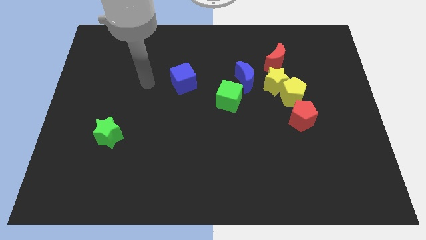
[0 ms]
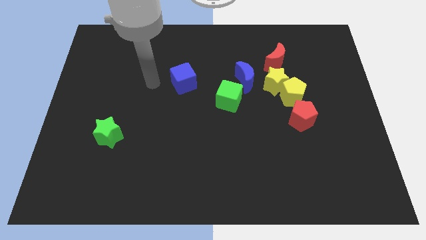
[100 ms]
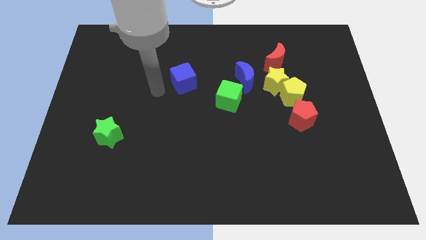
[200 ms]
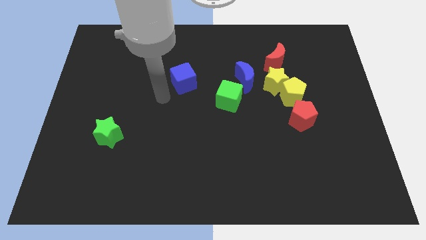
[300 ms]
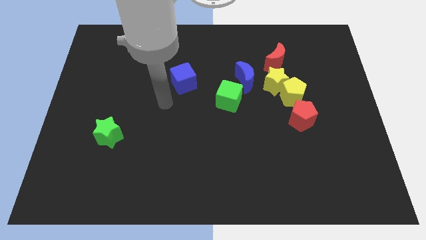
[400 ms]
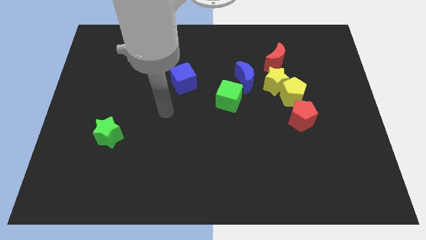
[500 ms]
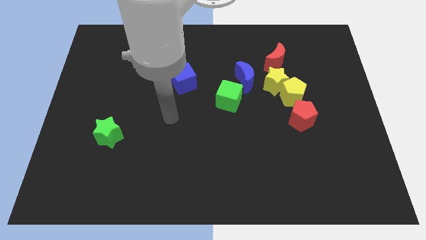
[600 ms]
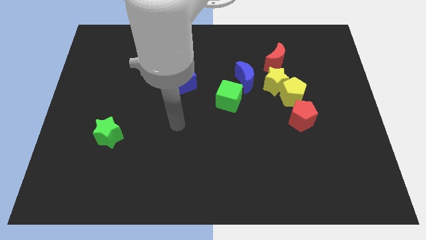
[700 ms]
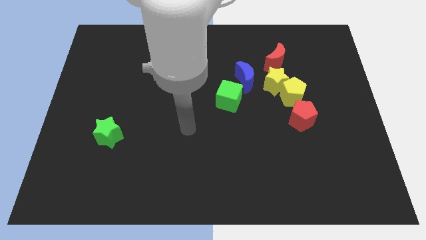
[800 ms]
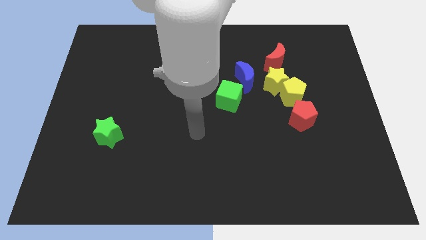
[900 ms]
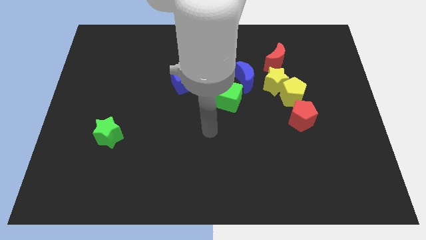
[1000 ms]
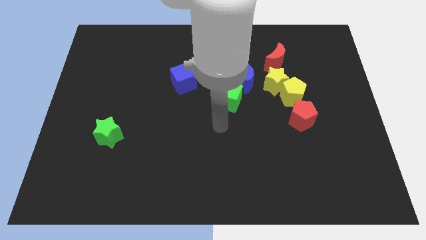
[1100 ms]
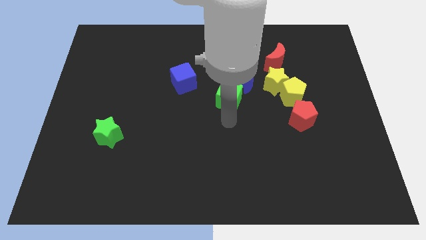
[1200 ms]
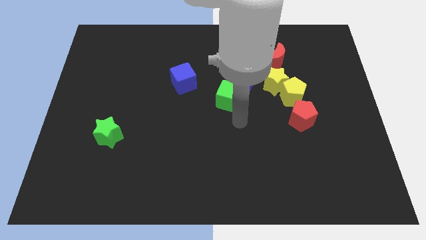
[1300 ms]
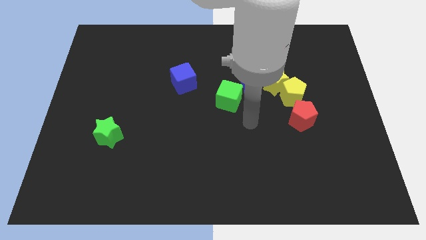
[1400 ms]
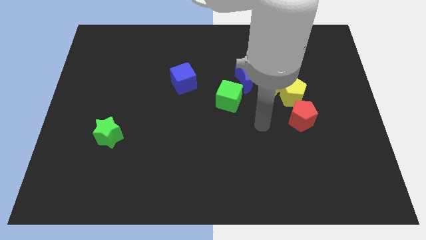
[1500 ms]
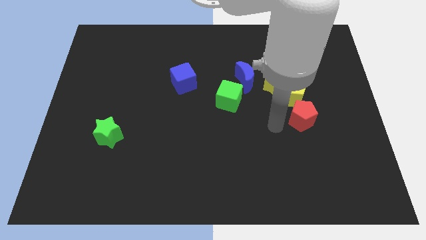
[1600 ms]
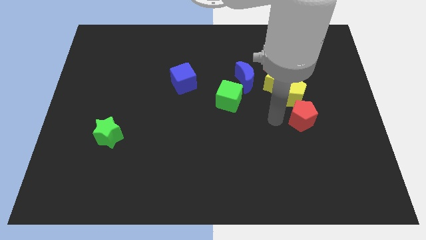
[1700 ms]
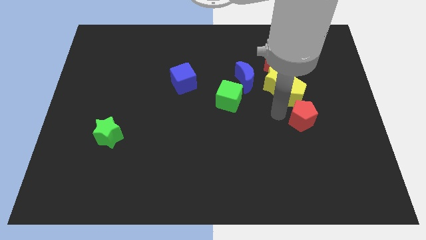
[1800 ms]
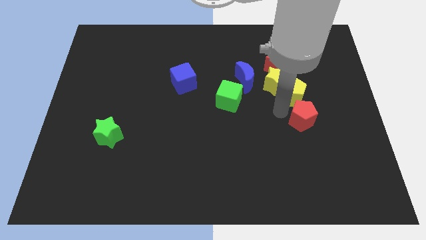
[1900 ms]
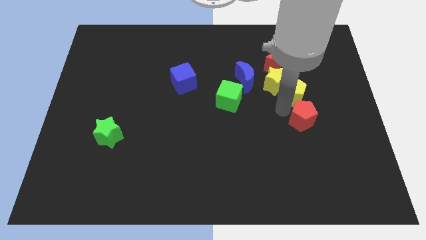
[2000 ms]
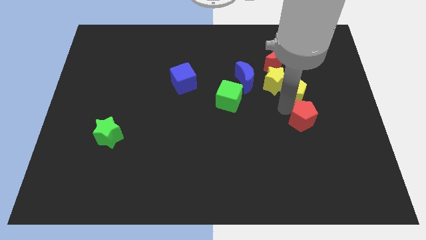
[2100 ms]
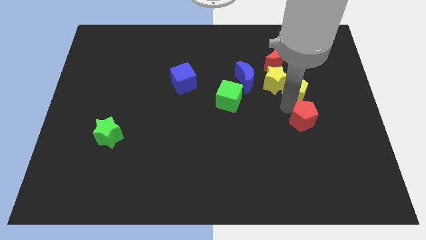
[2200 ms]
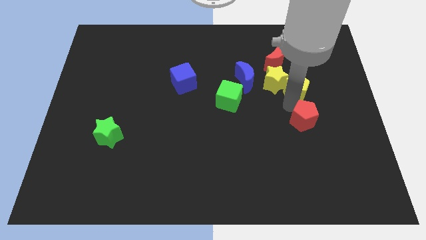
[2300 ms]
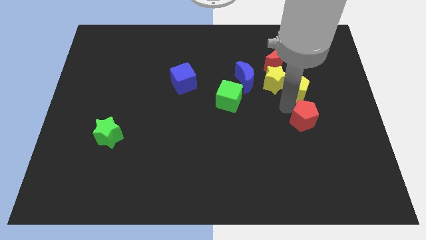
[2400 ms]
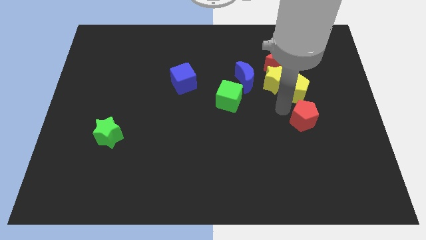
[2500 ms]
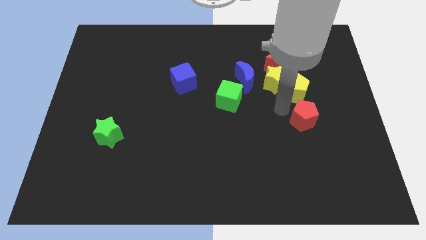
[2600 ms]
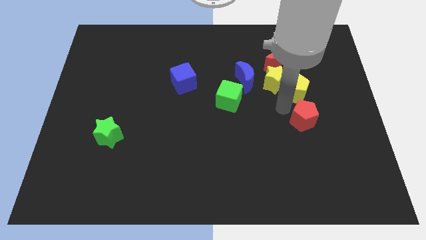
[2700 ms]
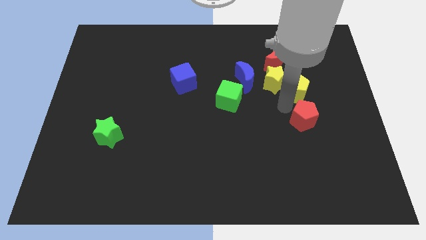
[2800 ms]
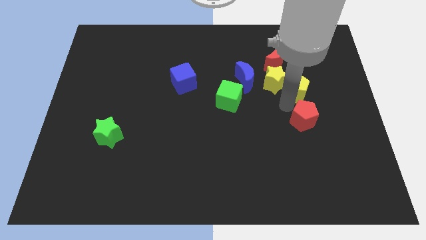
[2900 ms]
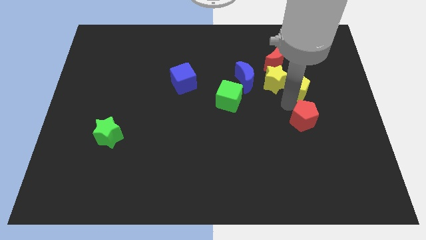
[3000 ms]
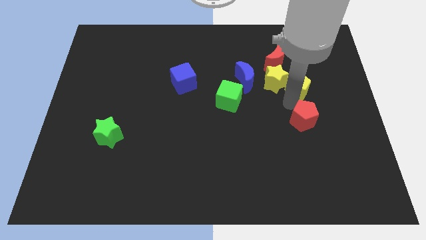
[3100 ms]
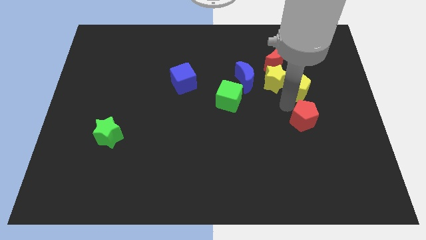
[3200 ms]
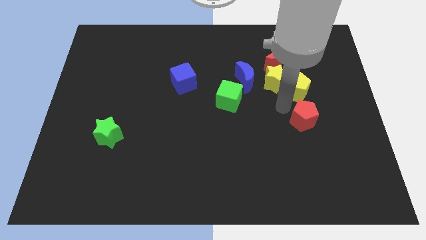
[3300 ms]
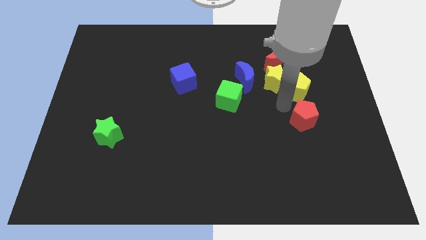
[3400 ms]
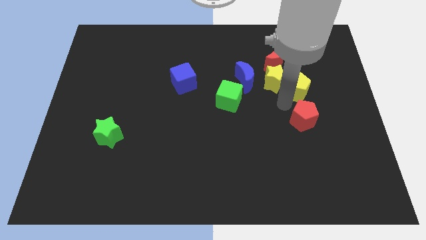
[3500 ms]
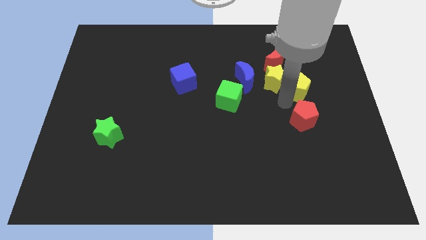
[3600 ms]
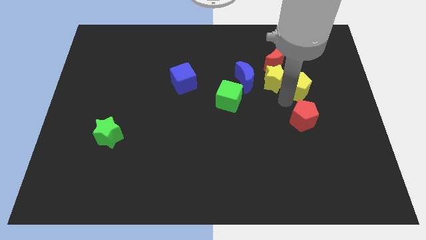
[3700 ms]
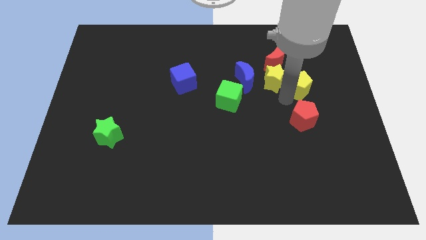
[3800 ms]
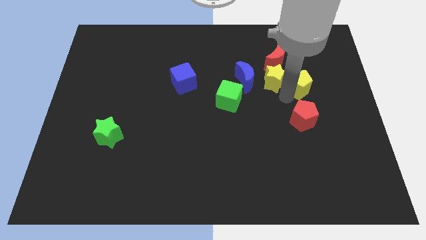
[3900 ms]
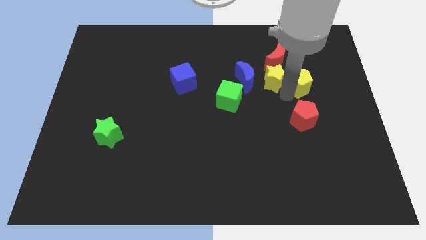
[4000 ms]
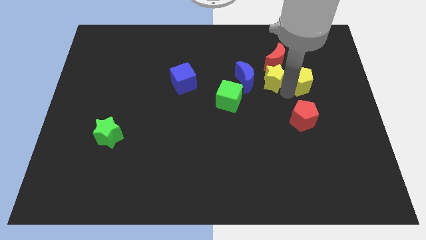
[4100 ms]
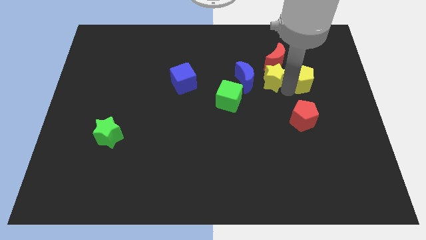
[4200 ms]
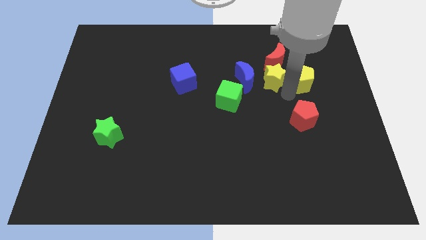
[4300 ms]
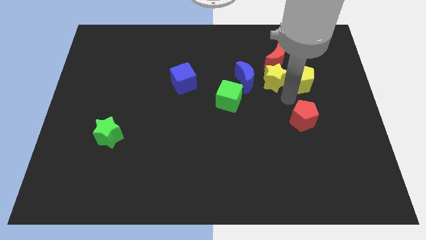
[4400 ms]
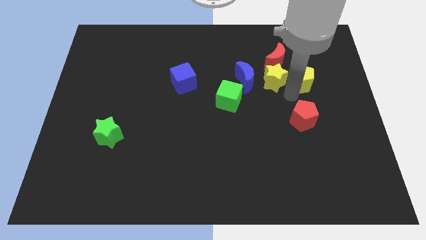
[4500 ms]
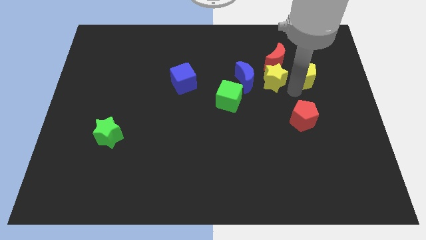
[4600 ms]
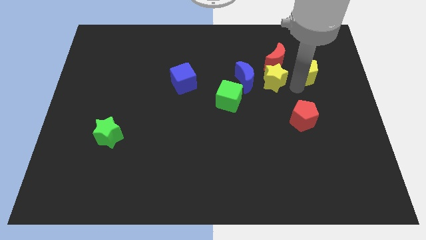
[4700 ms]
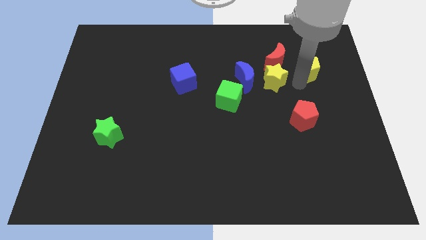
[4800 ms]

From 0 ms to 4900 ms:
pull the yellow pentagon apart from the yellow star and red pentagon

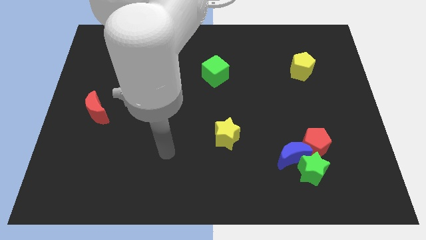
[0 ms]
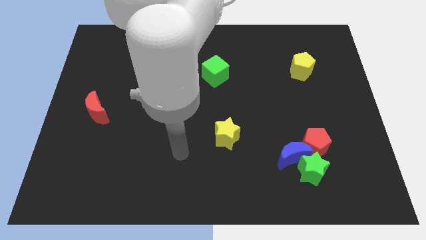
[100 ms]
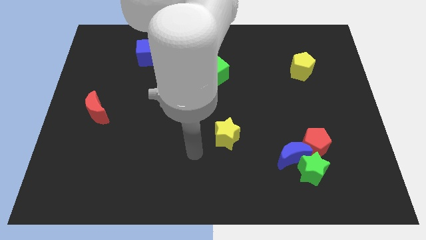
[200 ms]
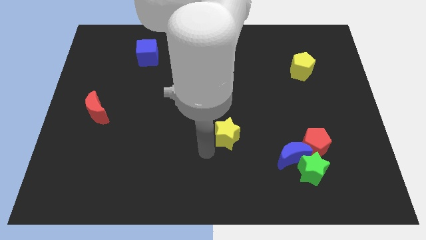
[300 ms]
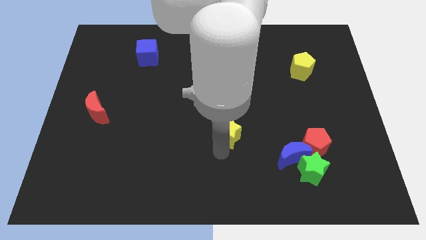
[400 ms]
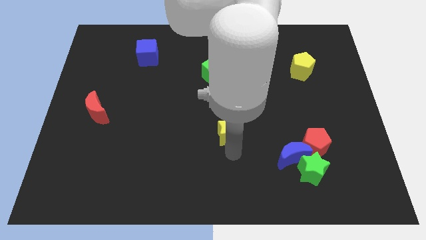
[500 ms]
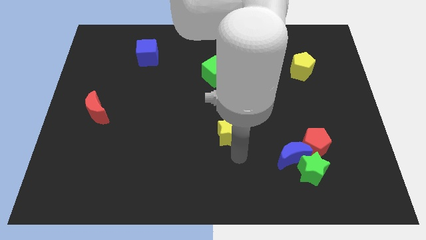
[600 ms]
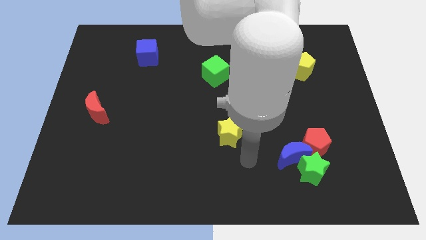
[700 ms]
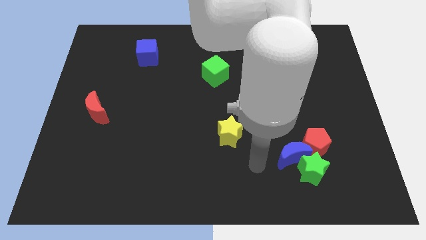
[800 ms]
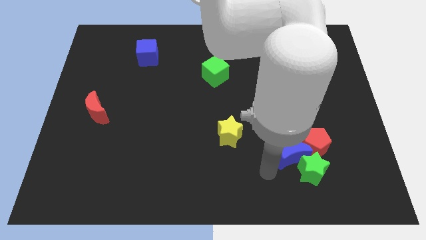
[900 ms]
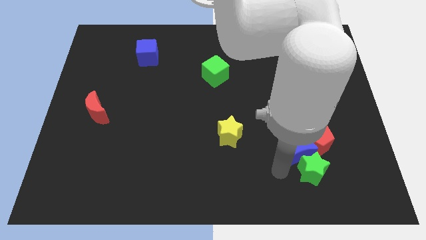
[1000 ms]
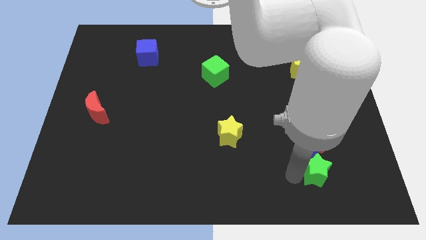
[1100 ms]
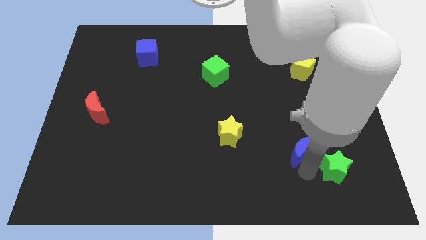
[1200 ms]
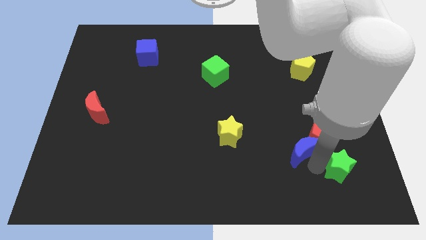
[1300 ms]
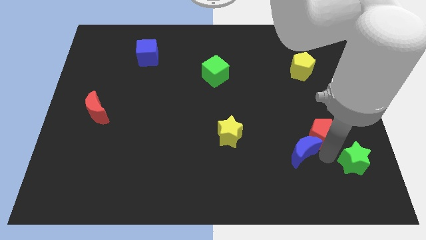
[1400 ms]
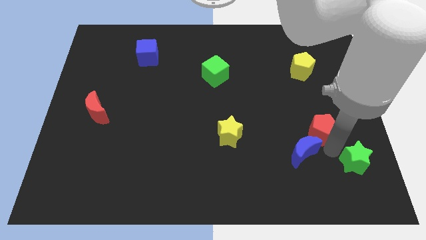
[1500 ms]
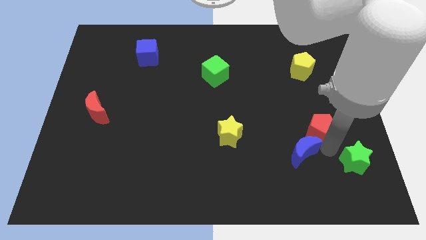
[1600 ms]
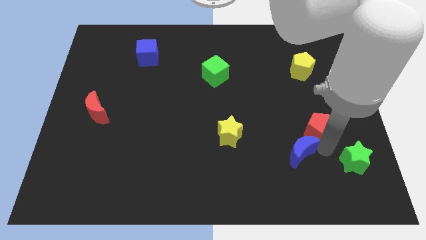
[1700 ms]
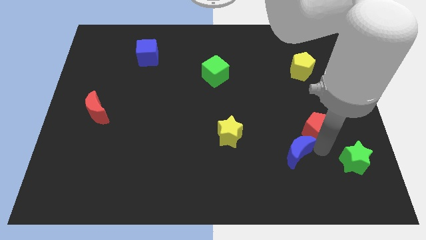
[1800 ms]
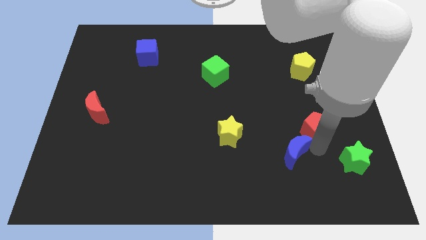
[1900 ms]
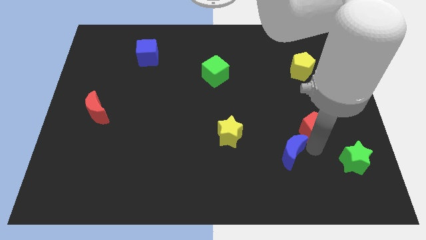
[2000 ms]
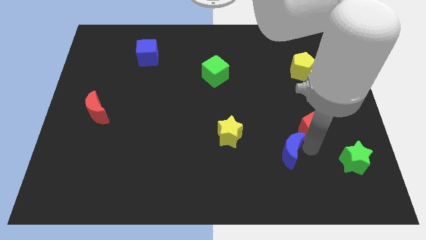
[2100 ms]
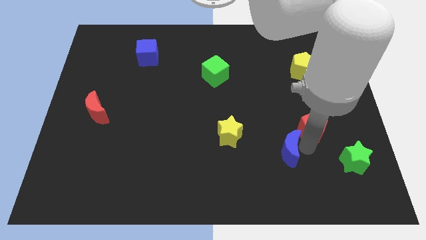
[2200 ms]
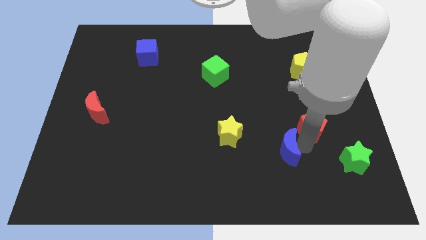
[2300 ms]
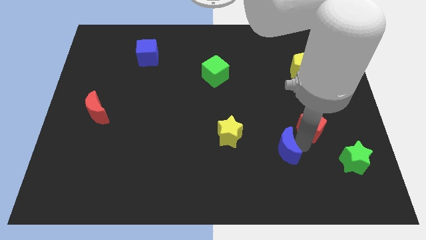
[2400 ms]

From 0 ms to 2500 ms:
separate the blue moon from the green star and red pentagon

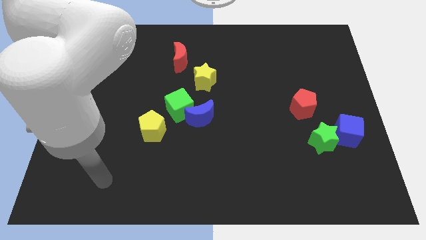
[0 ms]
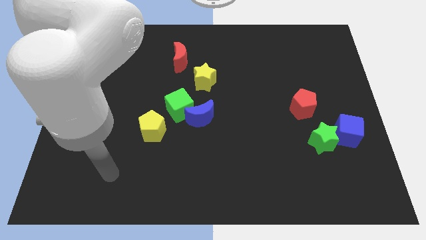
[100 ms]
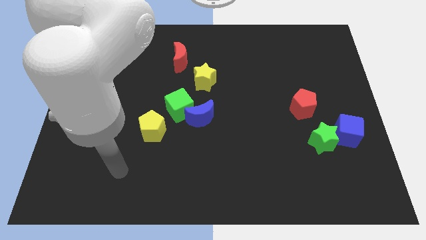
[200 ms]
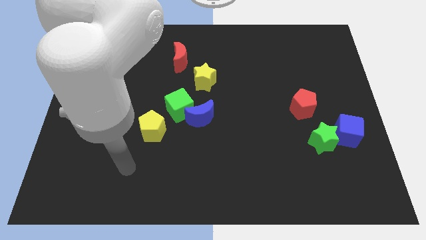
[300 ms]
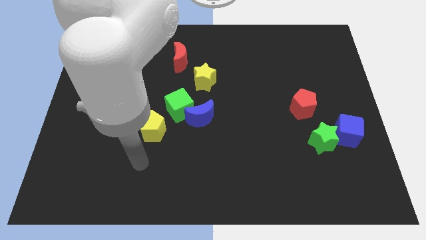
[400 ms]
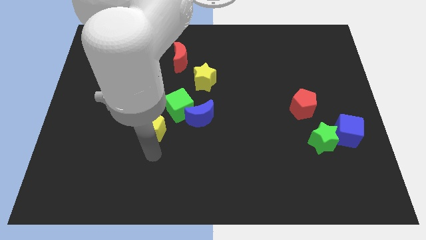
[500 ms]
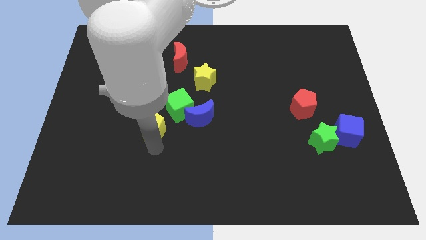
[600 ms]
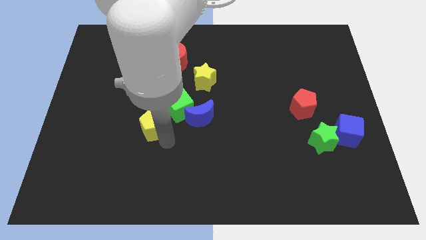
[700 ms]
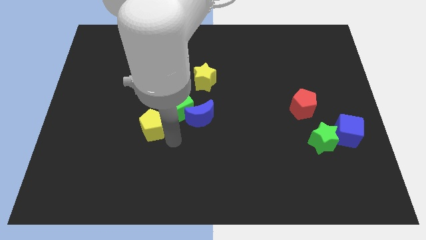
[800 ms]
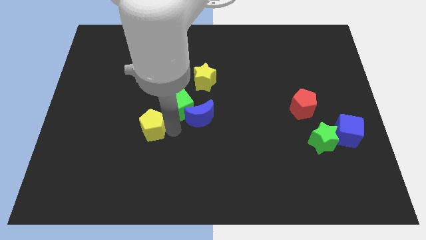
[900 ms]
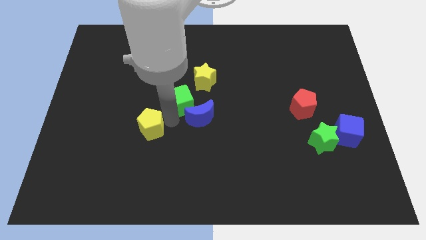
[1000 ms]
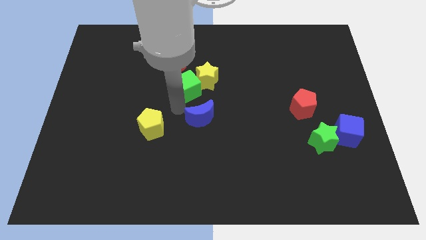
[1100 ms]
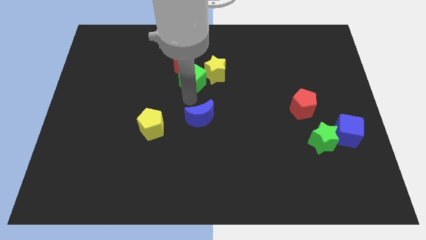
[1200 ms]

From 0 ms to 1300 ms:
move the blue moon away from the green cube

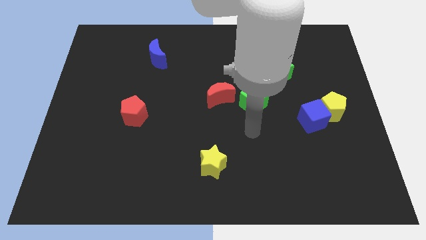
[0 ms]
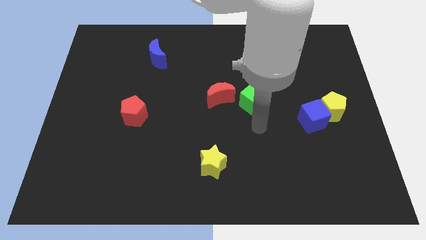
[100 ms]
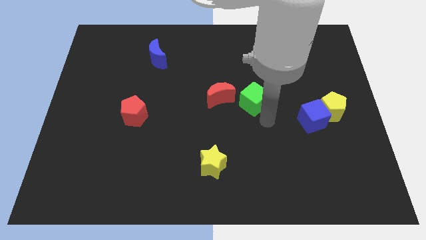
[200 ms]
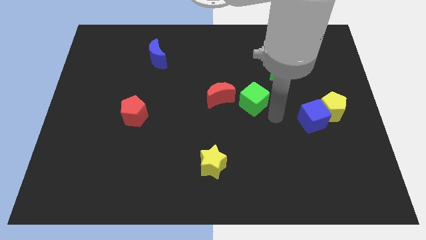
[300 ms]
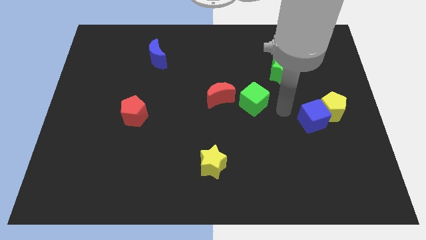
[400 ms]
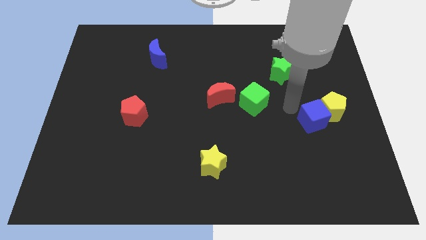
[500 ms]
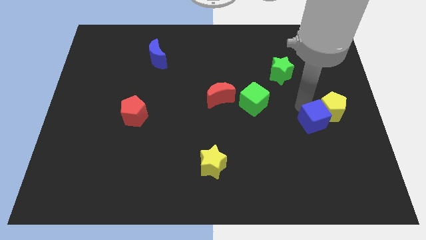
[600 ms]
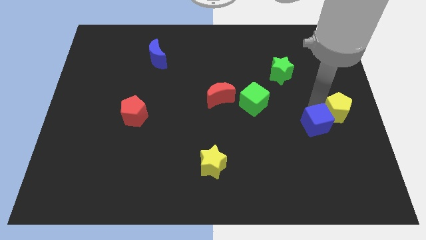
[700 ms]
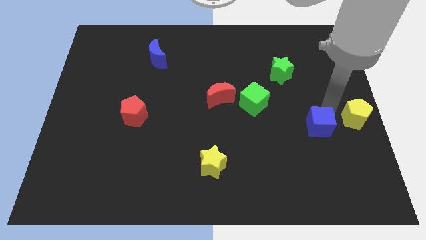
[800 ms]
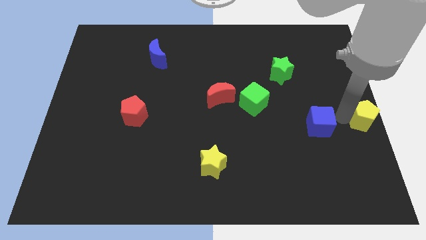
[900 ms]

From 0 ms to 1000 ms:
separate the blue cube from the yellow pentagon
